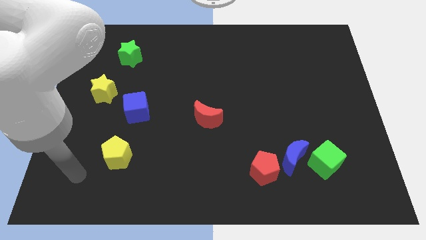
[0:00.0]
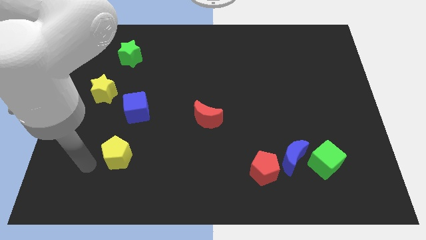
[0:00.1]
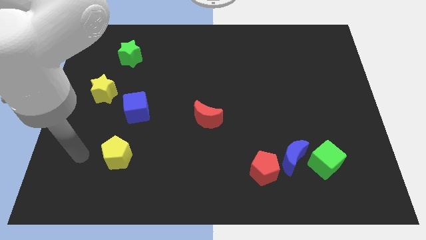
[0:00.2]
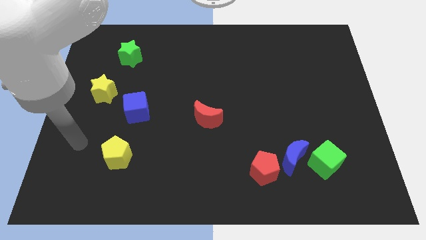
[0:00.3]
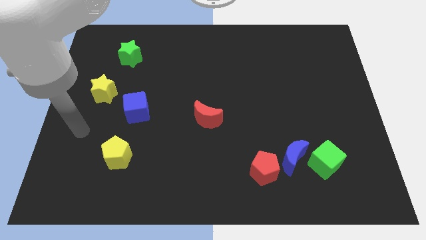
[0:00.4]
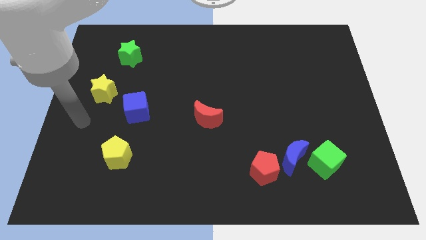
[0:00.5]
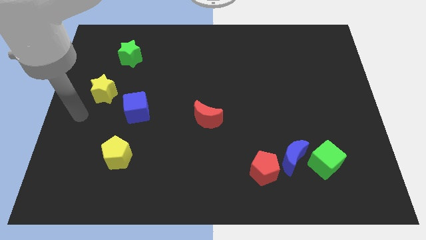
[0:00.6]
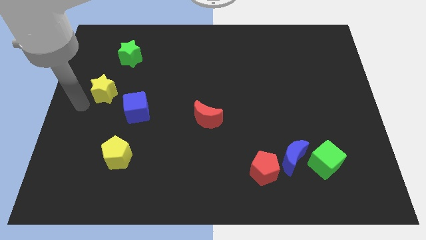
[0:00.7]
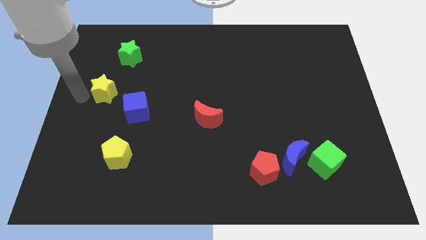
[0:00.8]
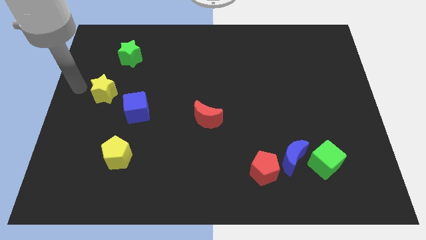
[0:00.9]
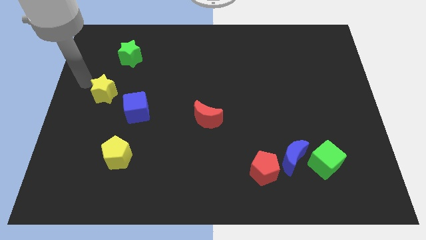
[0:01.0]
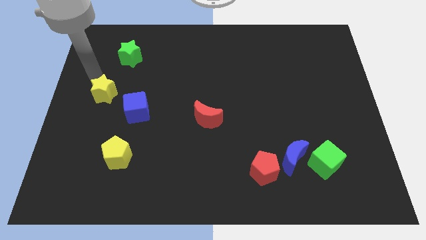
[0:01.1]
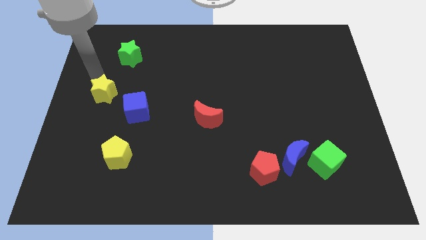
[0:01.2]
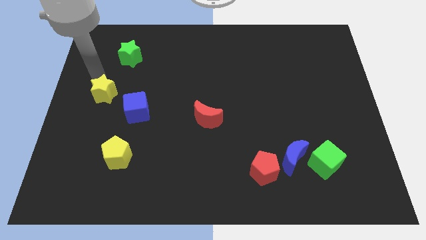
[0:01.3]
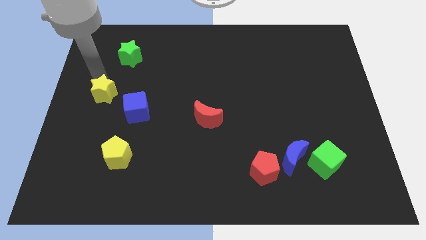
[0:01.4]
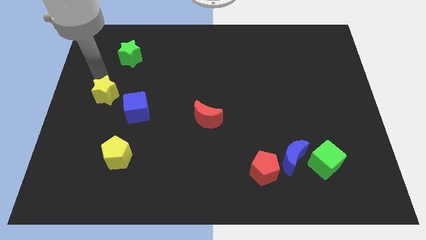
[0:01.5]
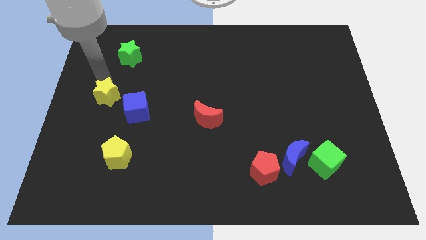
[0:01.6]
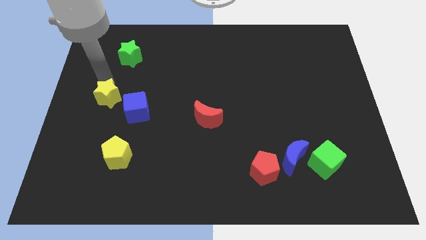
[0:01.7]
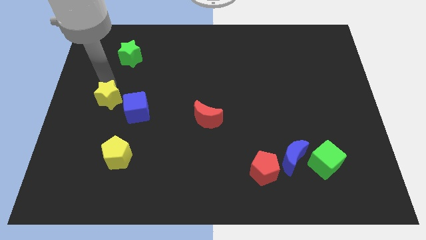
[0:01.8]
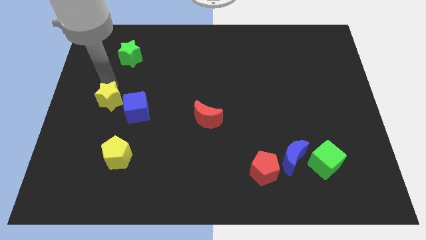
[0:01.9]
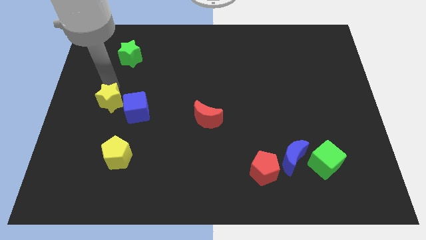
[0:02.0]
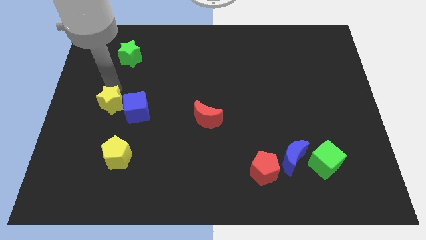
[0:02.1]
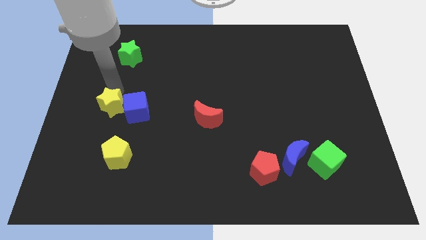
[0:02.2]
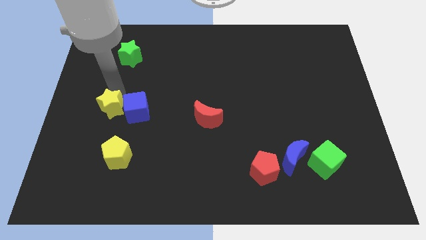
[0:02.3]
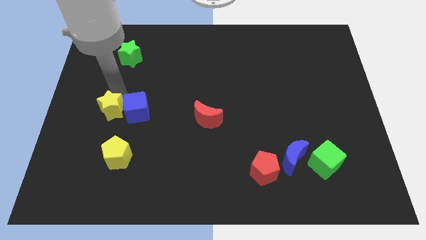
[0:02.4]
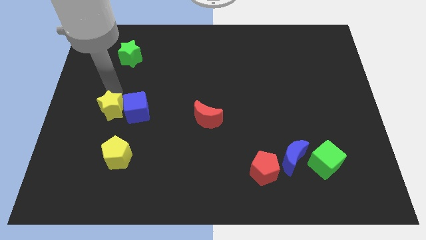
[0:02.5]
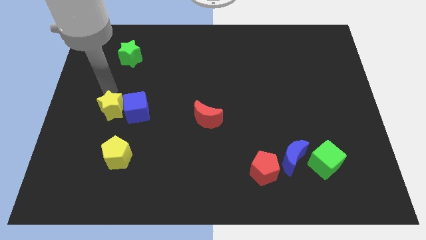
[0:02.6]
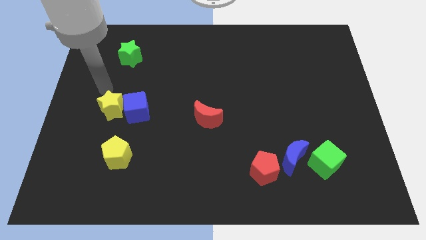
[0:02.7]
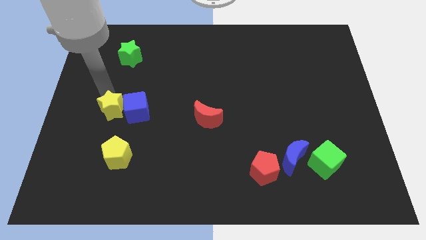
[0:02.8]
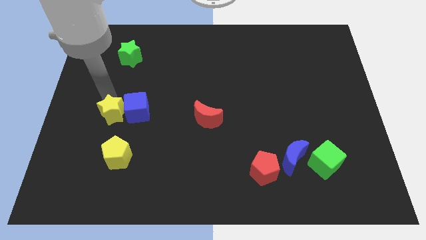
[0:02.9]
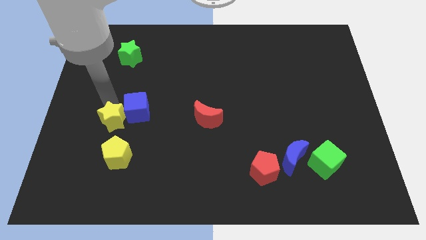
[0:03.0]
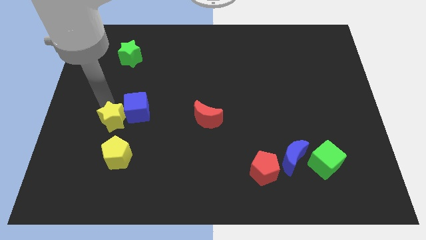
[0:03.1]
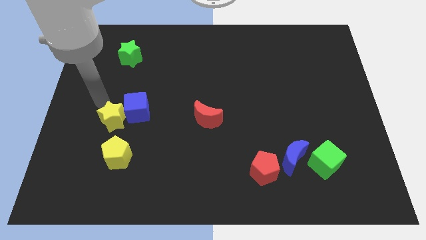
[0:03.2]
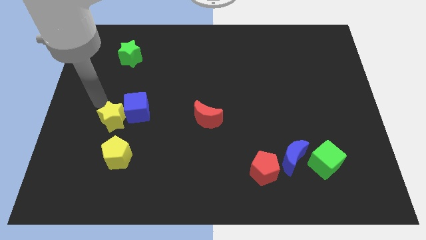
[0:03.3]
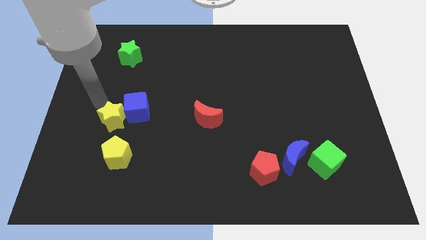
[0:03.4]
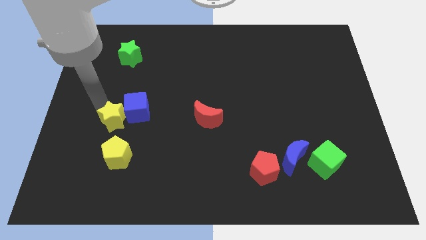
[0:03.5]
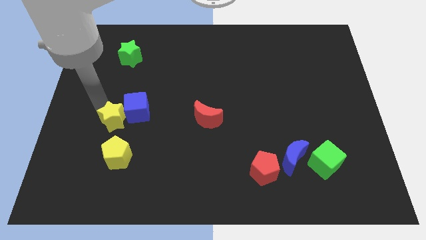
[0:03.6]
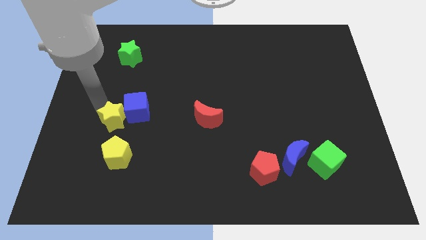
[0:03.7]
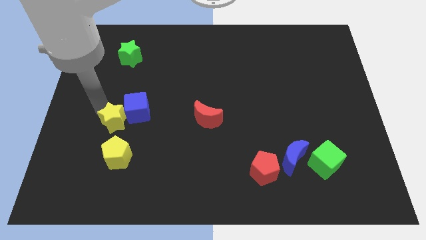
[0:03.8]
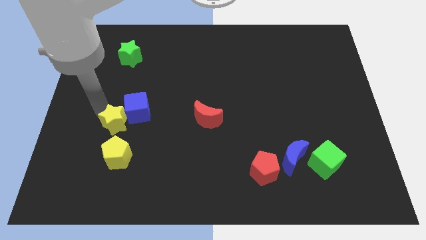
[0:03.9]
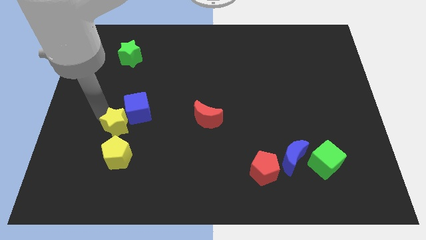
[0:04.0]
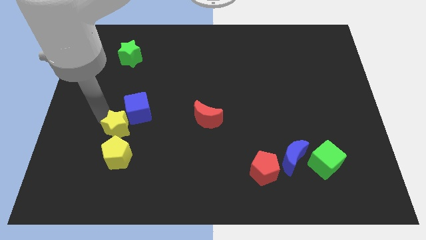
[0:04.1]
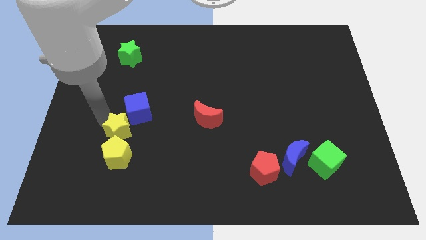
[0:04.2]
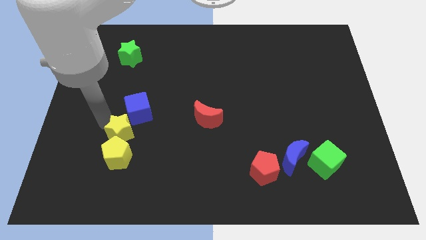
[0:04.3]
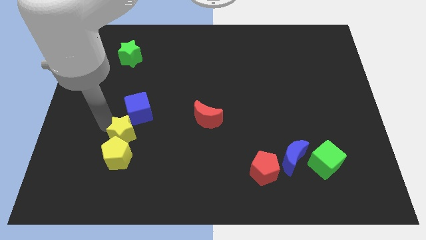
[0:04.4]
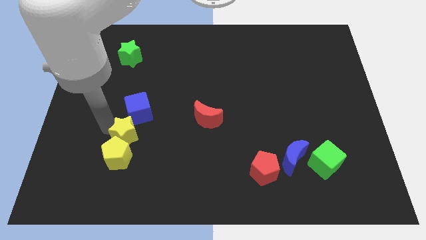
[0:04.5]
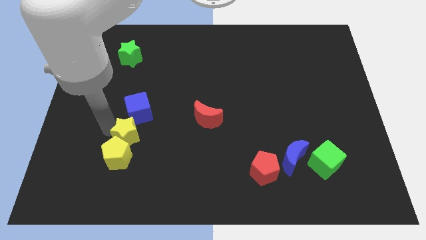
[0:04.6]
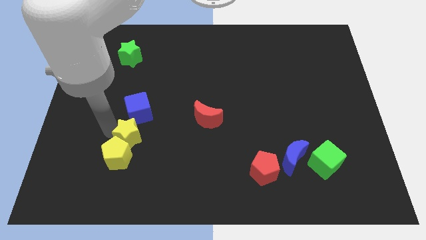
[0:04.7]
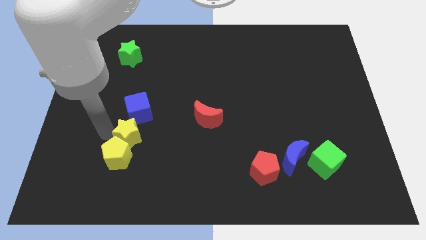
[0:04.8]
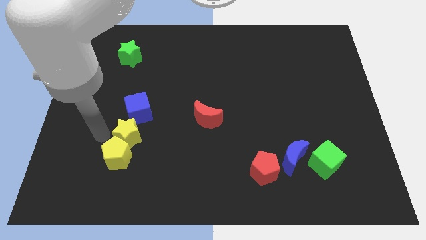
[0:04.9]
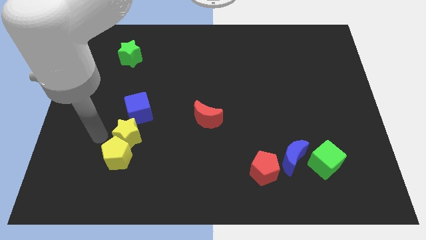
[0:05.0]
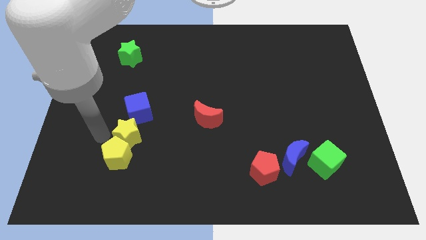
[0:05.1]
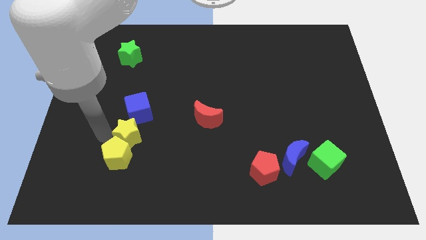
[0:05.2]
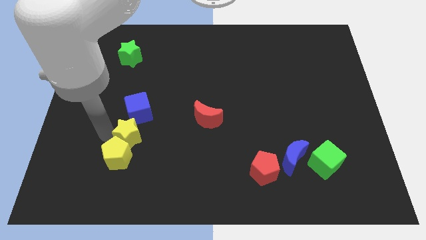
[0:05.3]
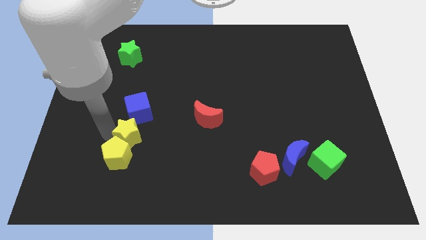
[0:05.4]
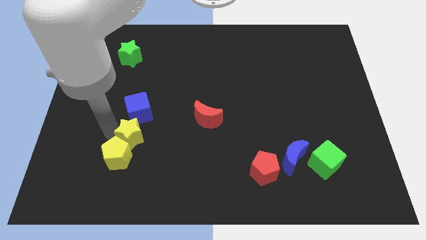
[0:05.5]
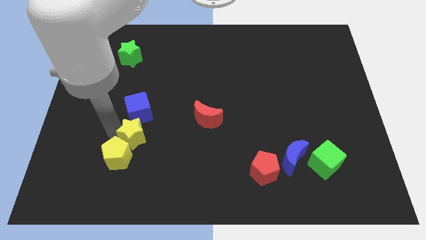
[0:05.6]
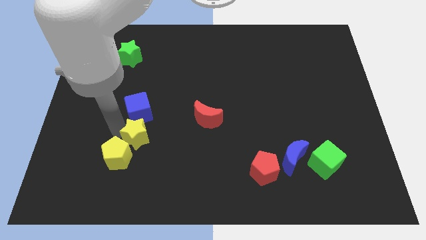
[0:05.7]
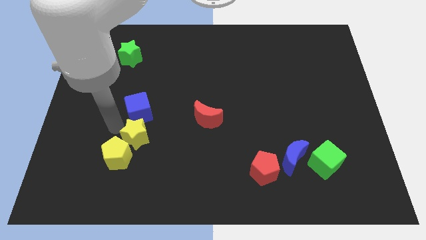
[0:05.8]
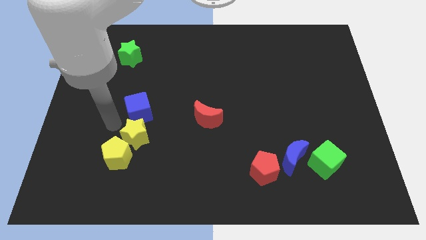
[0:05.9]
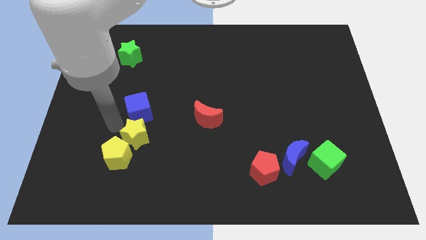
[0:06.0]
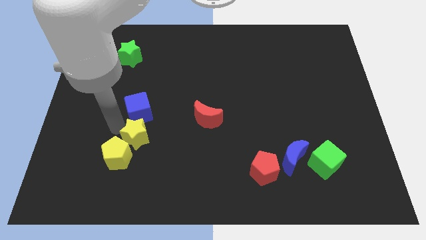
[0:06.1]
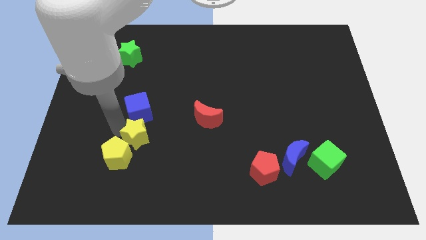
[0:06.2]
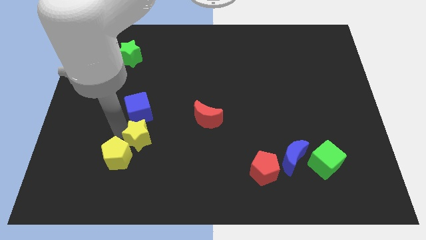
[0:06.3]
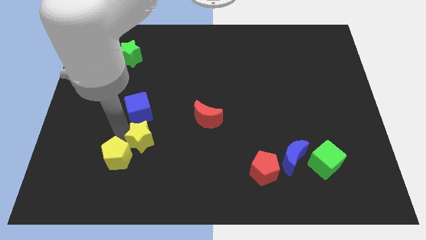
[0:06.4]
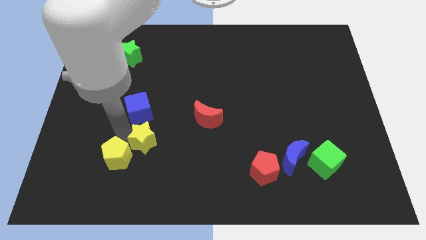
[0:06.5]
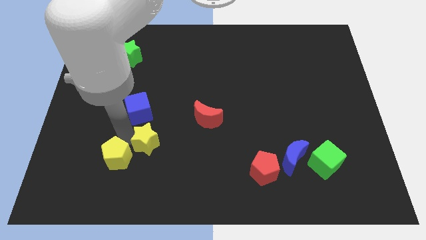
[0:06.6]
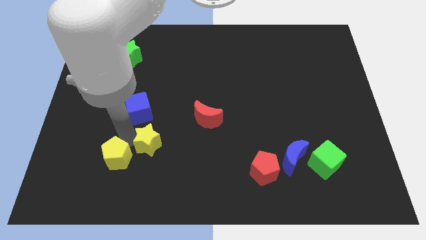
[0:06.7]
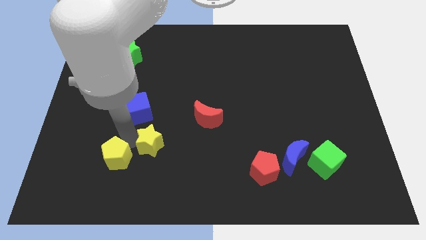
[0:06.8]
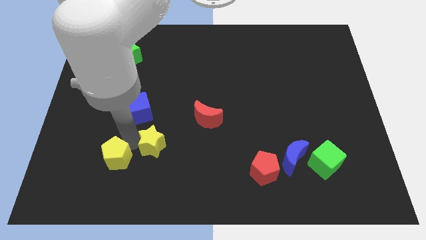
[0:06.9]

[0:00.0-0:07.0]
move the yellow star down and then right

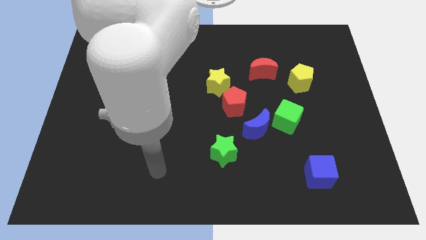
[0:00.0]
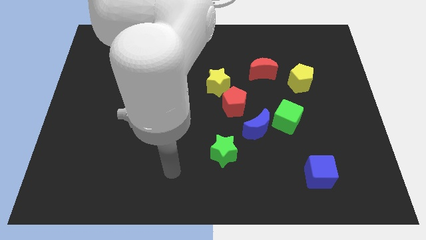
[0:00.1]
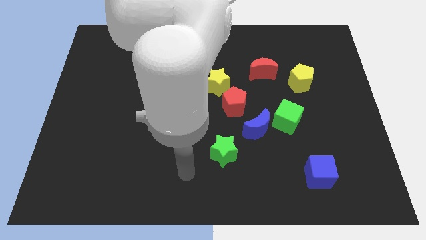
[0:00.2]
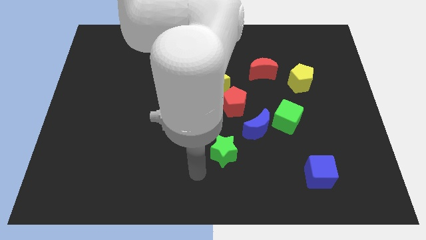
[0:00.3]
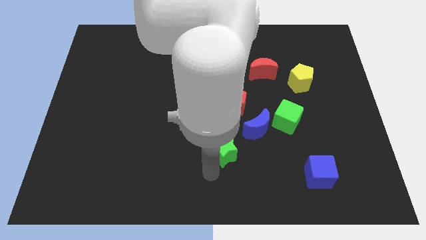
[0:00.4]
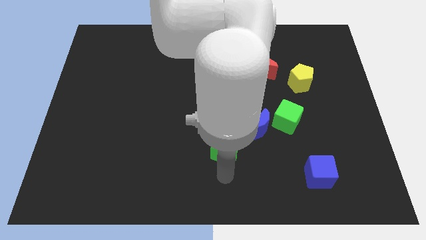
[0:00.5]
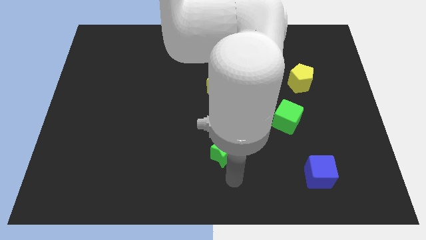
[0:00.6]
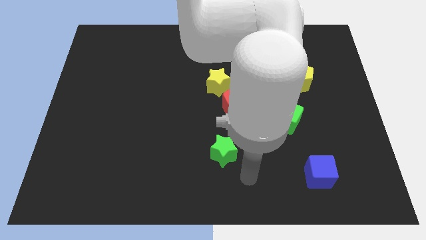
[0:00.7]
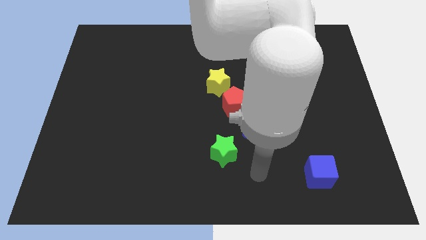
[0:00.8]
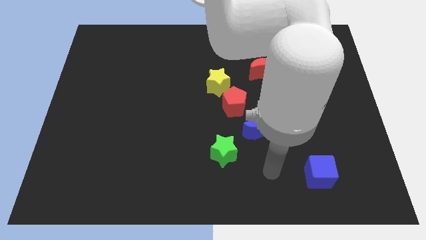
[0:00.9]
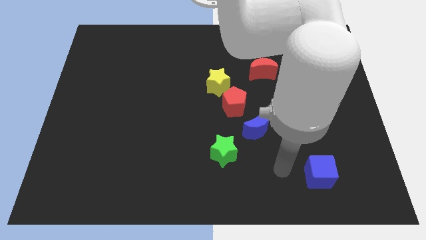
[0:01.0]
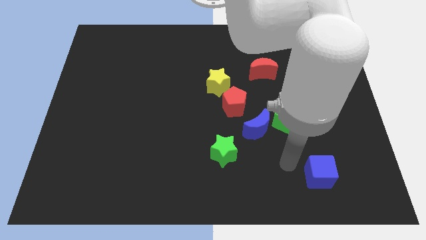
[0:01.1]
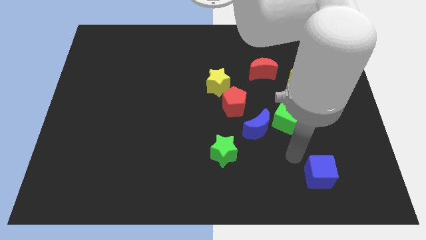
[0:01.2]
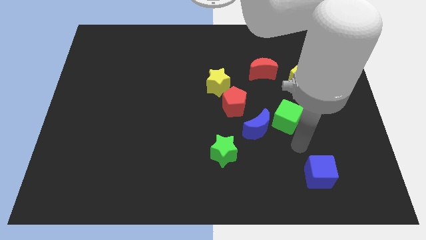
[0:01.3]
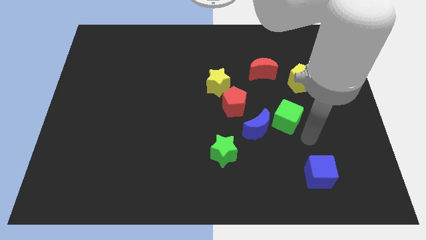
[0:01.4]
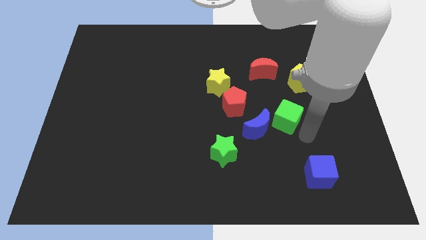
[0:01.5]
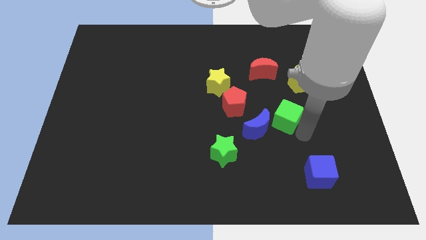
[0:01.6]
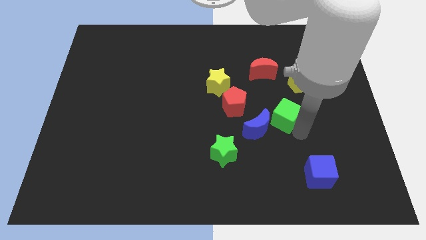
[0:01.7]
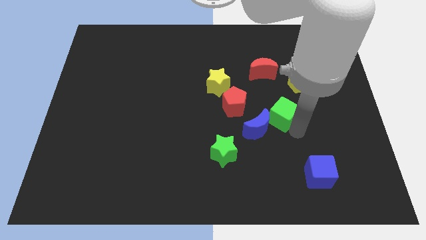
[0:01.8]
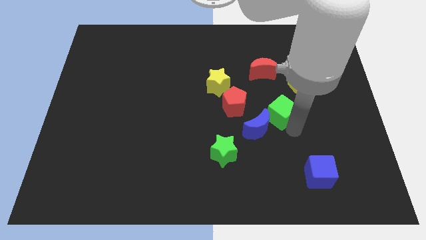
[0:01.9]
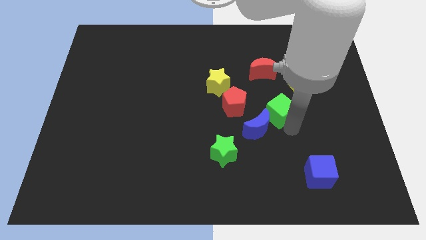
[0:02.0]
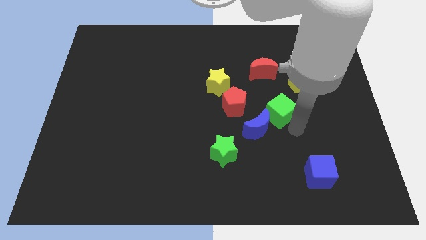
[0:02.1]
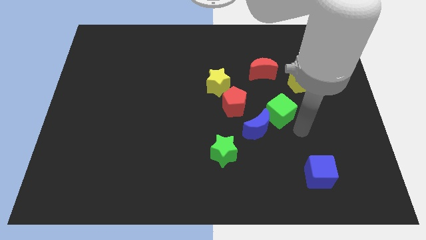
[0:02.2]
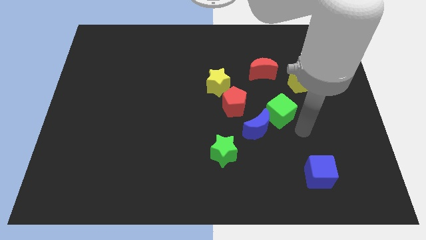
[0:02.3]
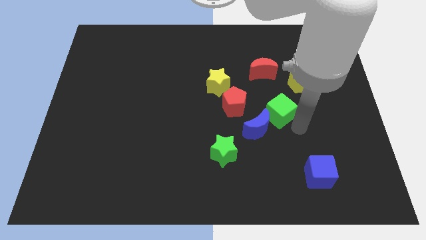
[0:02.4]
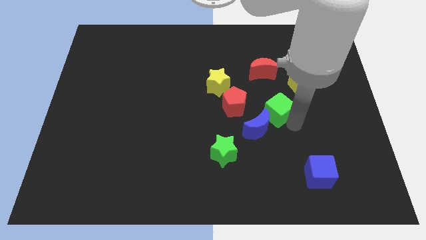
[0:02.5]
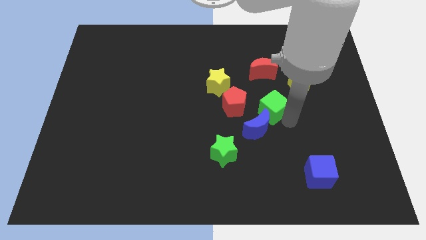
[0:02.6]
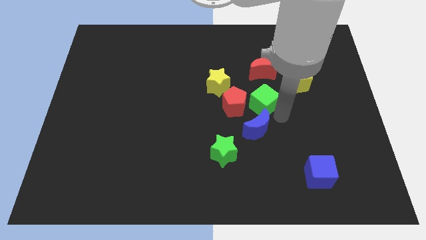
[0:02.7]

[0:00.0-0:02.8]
push the green cube up and then left somewhat
